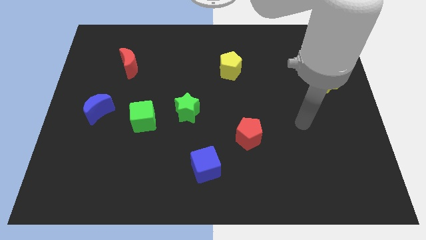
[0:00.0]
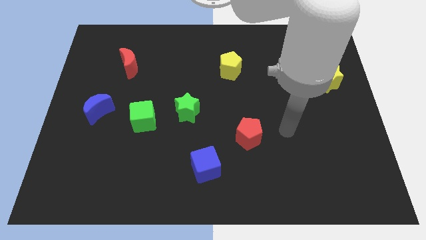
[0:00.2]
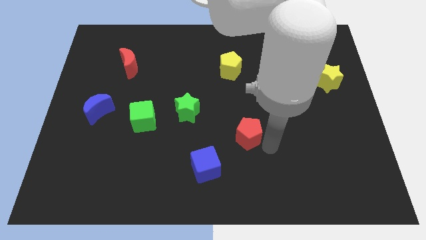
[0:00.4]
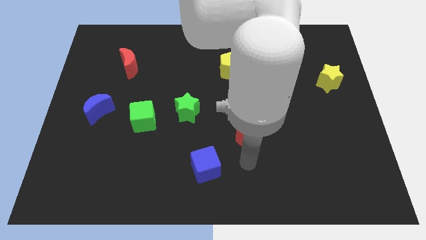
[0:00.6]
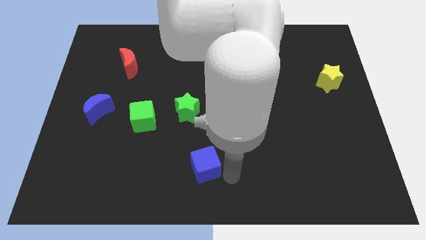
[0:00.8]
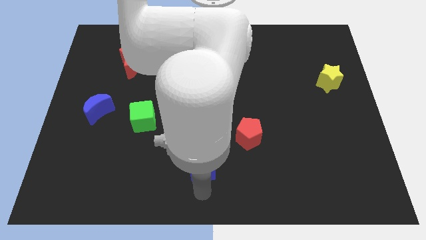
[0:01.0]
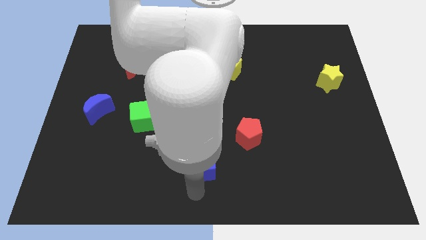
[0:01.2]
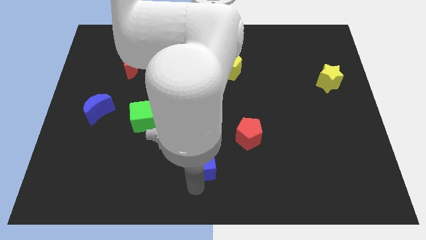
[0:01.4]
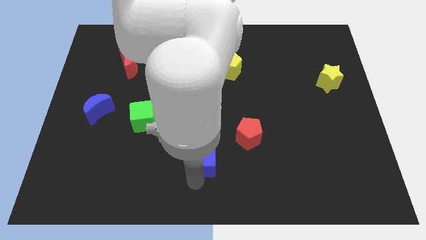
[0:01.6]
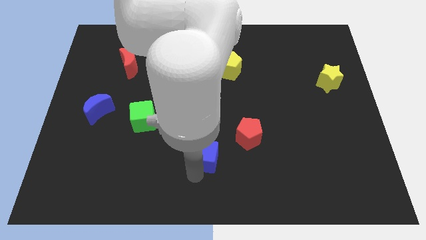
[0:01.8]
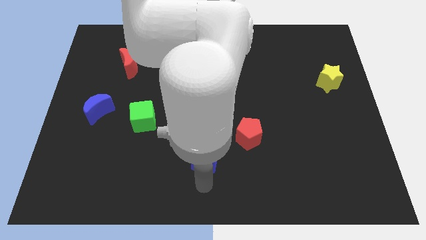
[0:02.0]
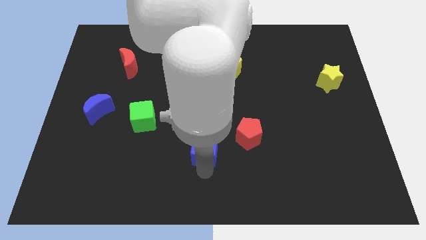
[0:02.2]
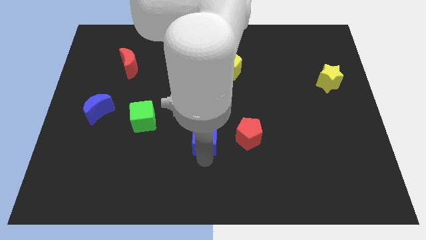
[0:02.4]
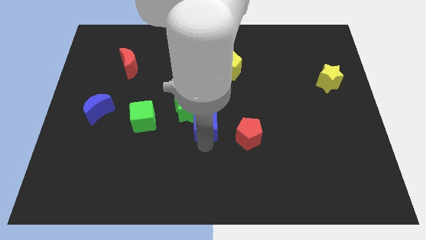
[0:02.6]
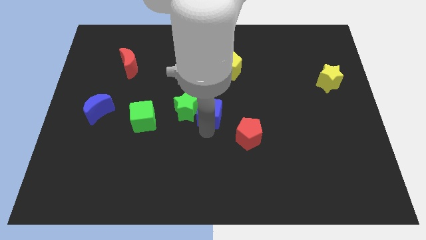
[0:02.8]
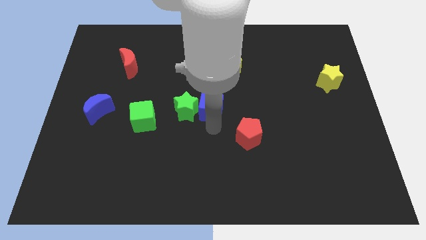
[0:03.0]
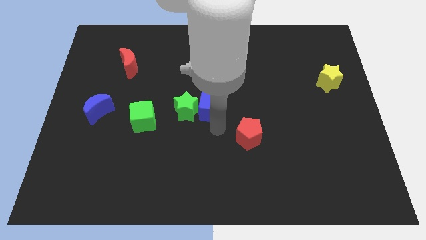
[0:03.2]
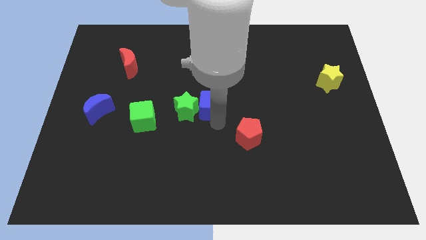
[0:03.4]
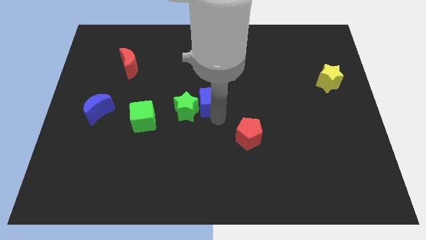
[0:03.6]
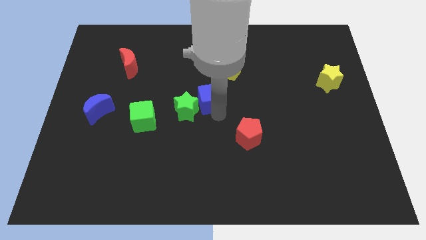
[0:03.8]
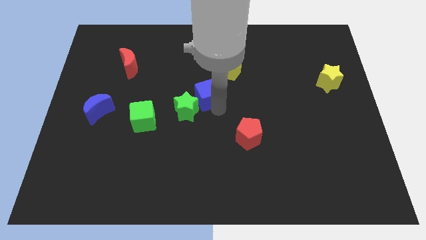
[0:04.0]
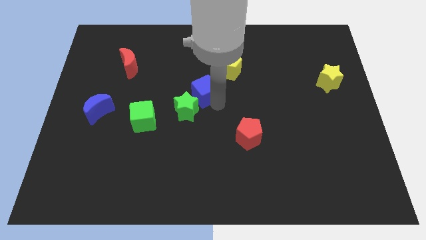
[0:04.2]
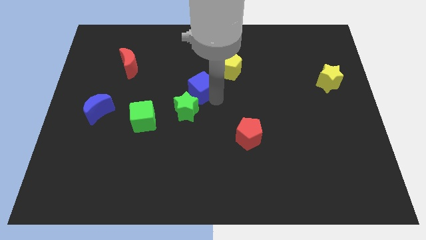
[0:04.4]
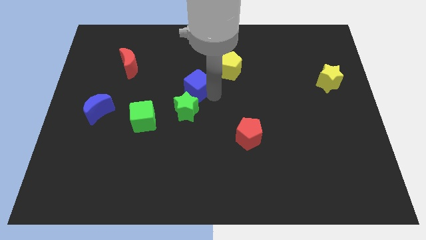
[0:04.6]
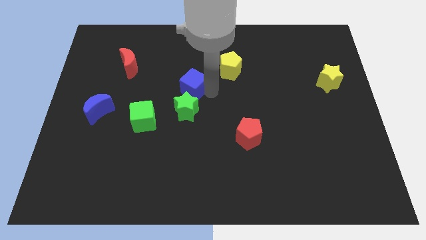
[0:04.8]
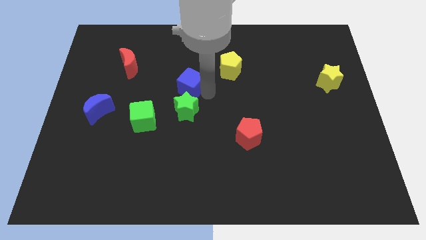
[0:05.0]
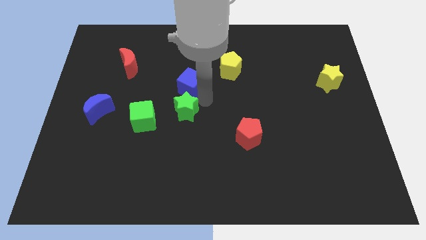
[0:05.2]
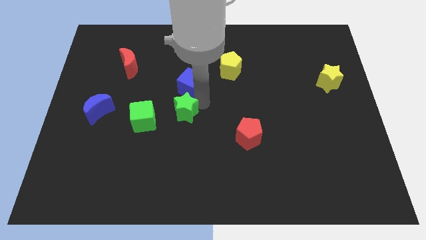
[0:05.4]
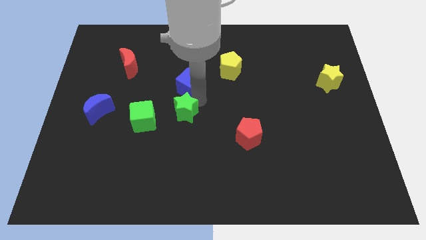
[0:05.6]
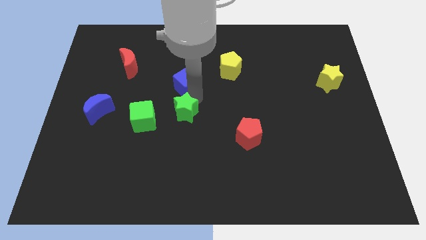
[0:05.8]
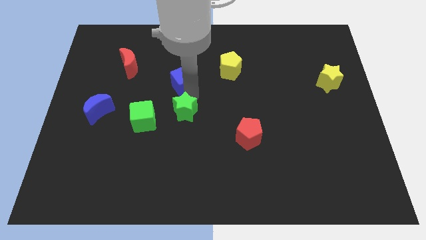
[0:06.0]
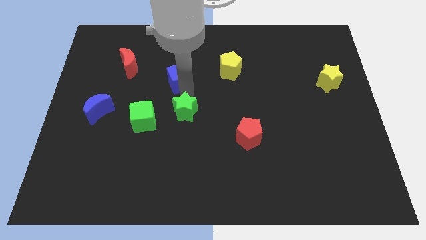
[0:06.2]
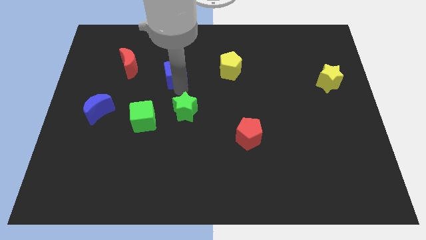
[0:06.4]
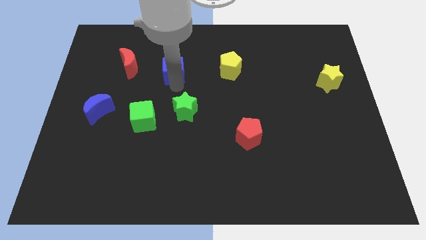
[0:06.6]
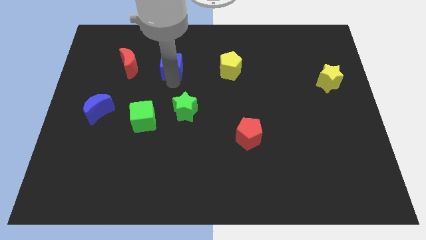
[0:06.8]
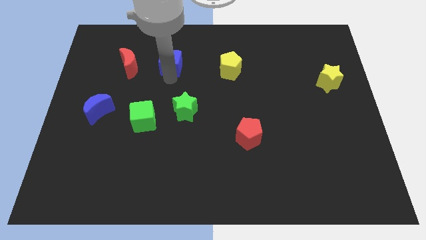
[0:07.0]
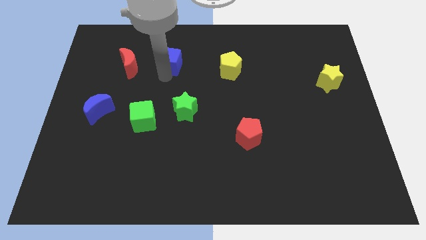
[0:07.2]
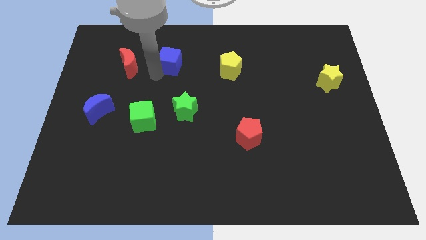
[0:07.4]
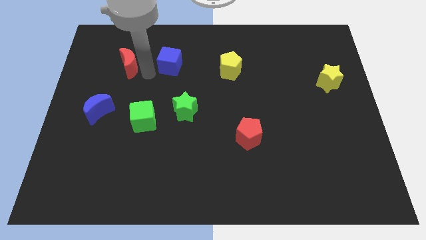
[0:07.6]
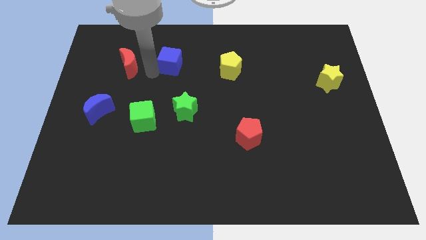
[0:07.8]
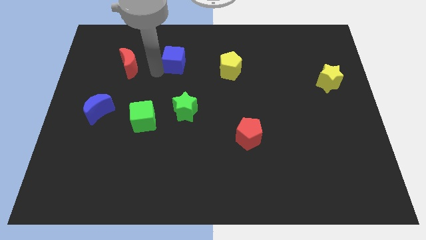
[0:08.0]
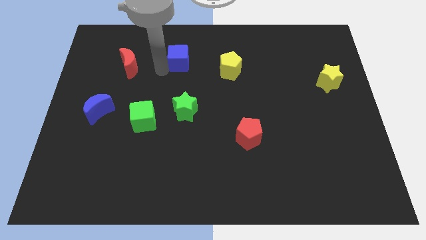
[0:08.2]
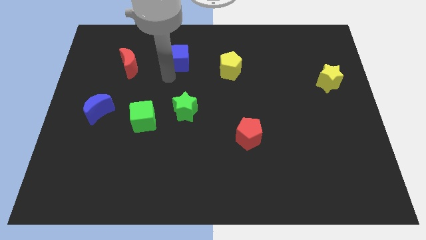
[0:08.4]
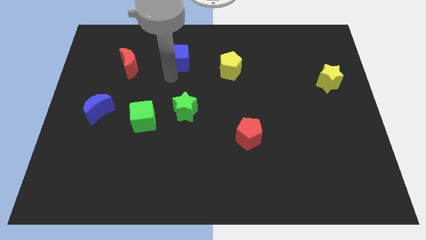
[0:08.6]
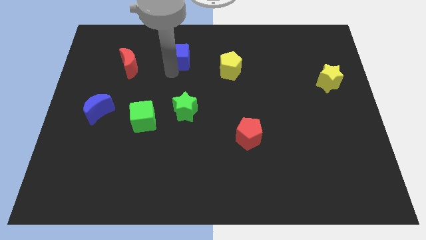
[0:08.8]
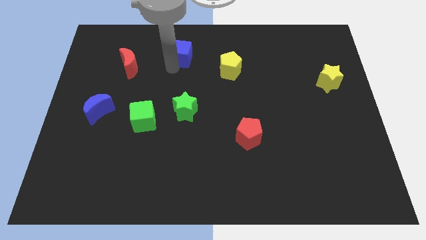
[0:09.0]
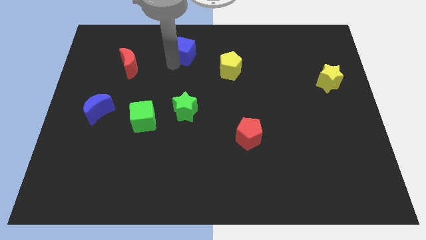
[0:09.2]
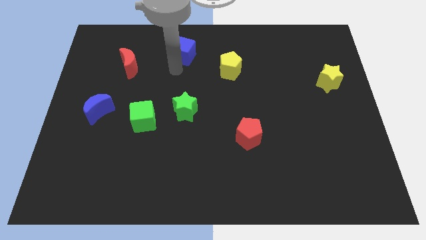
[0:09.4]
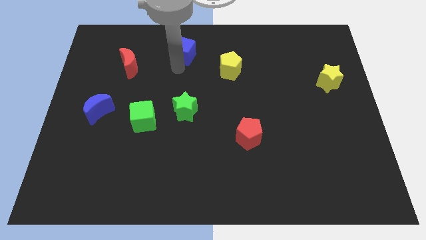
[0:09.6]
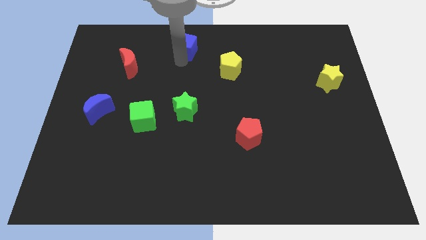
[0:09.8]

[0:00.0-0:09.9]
put the blue cube to the top

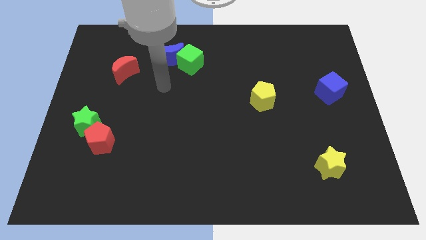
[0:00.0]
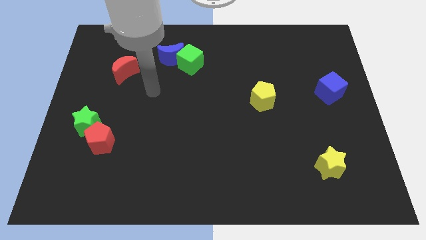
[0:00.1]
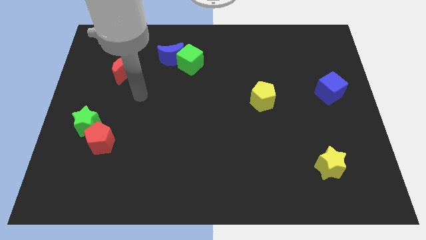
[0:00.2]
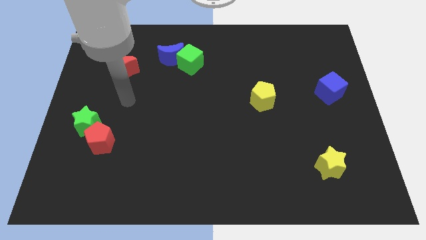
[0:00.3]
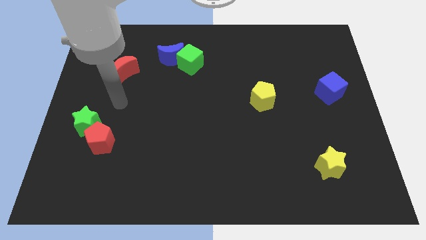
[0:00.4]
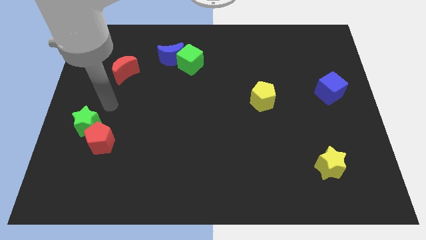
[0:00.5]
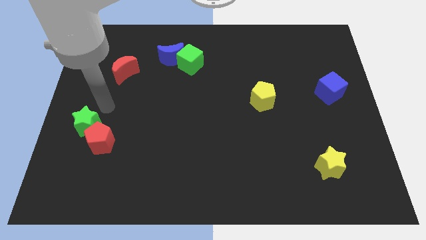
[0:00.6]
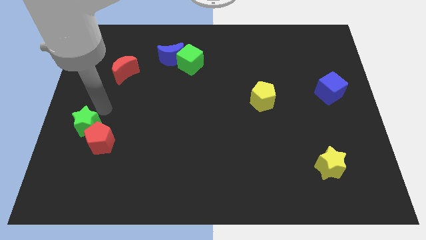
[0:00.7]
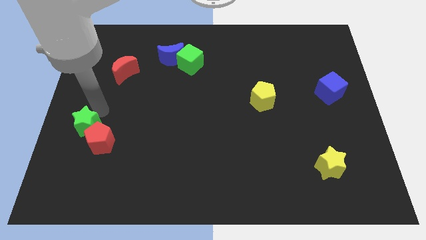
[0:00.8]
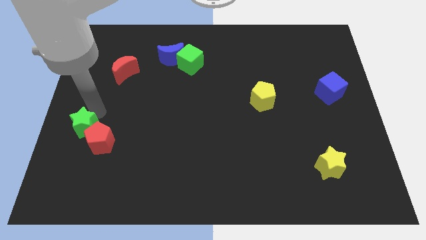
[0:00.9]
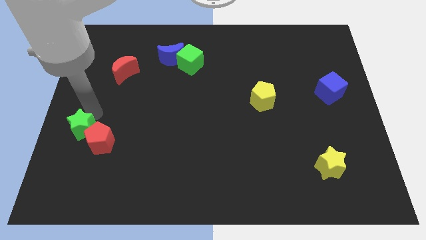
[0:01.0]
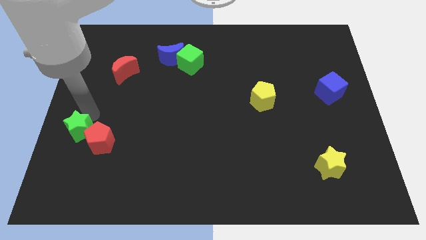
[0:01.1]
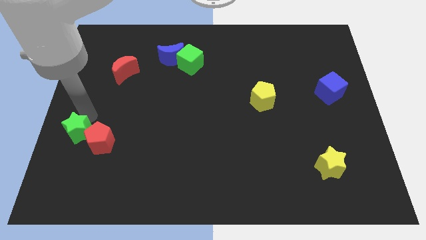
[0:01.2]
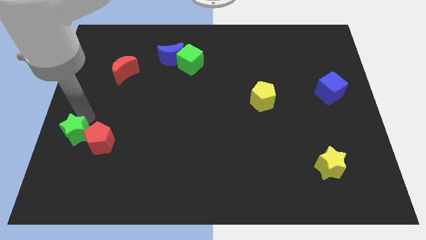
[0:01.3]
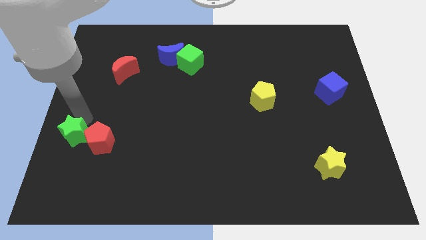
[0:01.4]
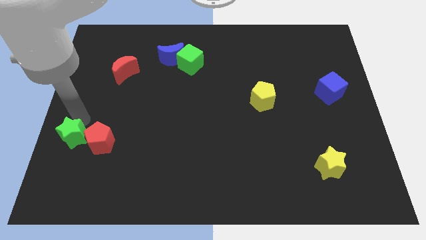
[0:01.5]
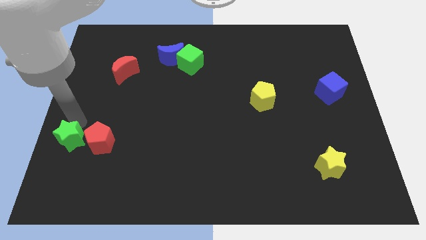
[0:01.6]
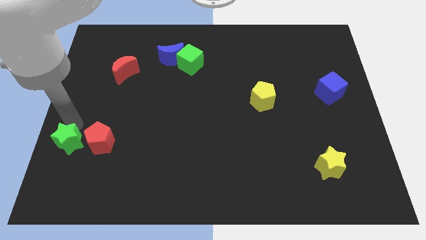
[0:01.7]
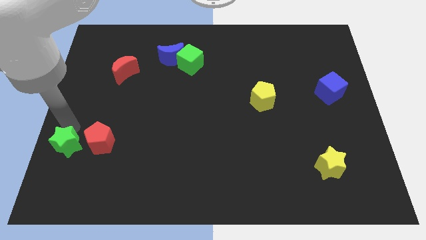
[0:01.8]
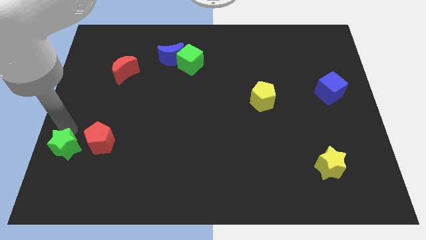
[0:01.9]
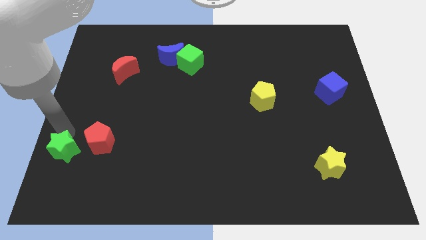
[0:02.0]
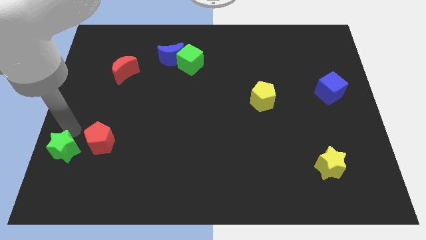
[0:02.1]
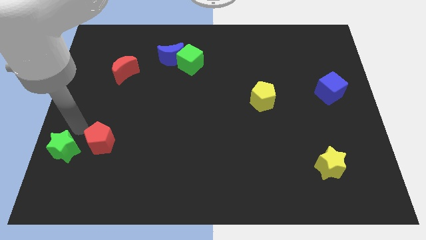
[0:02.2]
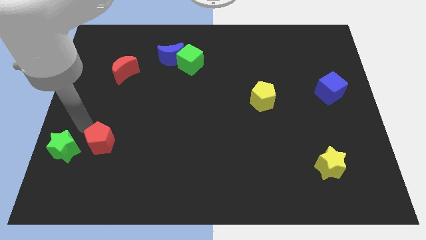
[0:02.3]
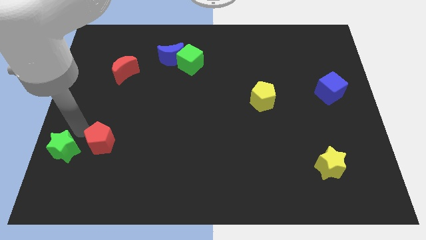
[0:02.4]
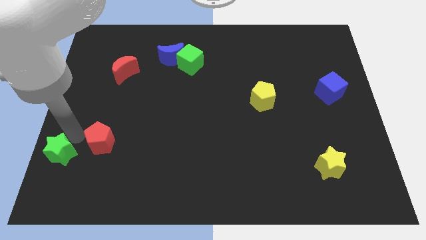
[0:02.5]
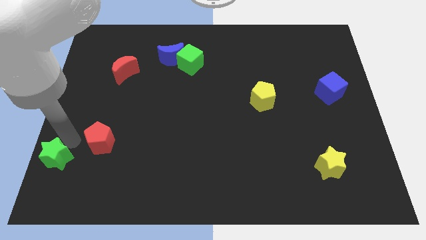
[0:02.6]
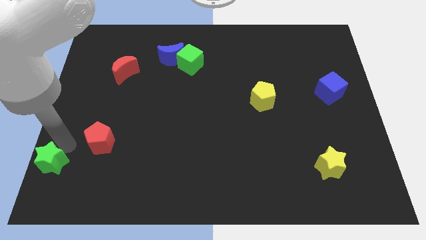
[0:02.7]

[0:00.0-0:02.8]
move the green star to the bottom left of the board
